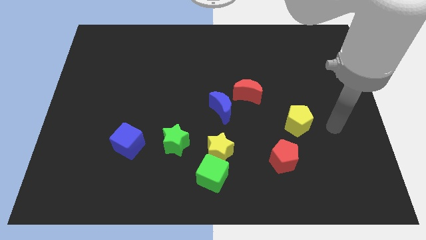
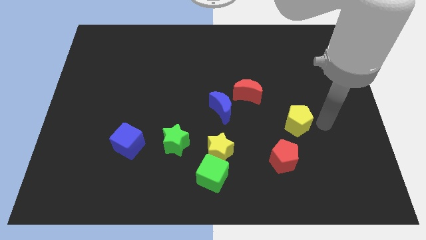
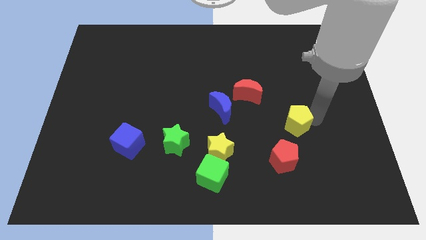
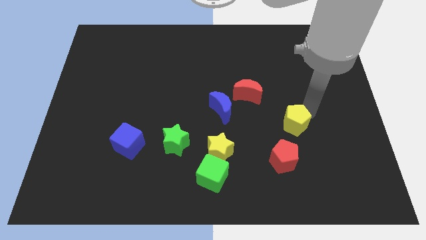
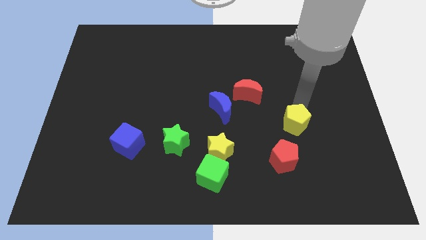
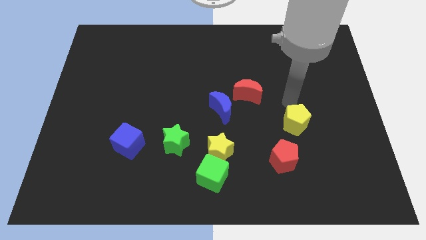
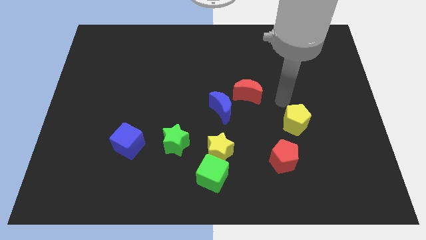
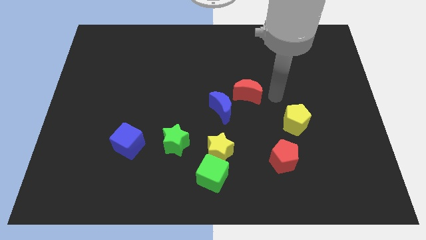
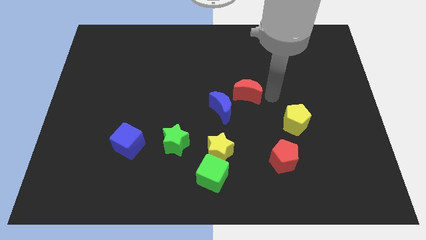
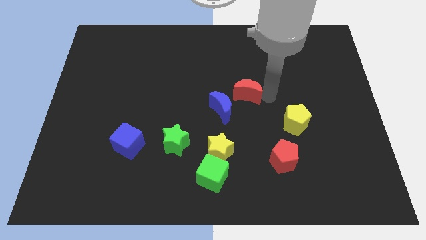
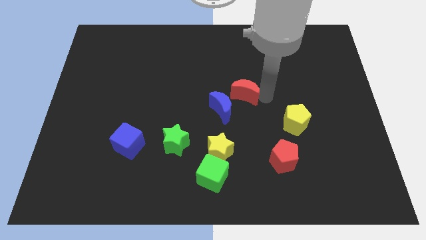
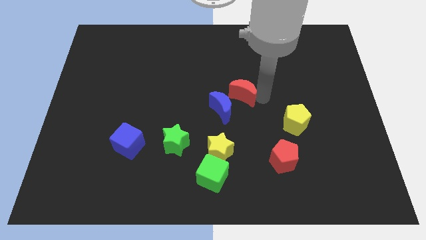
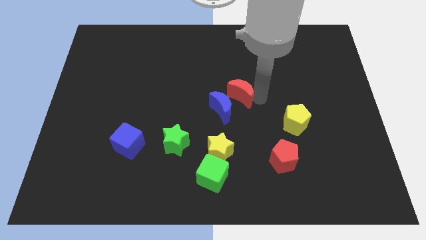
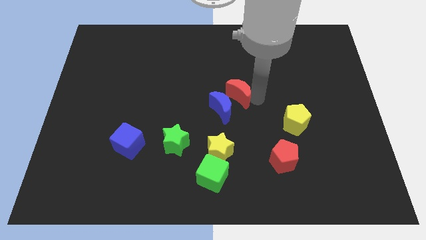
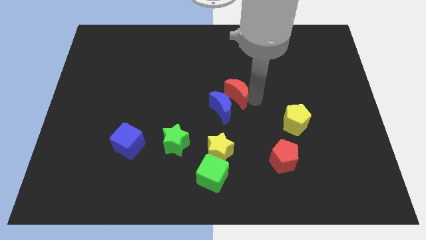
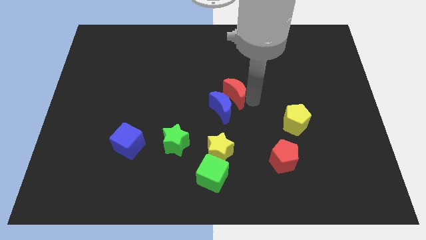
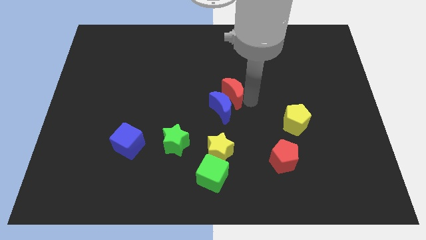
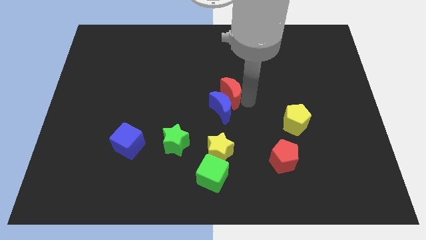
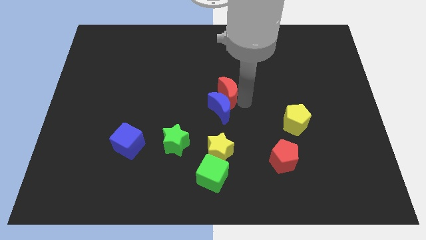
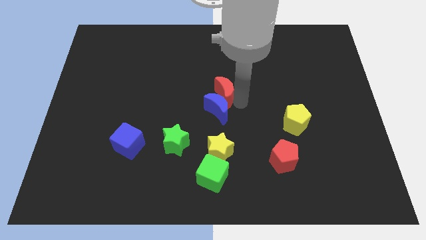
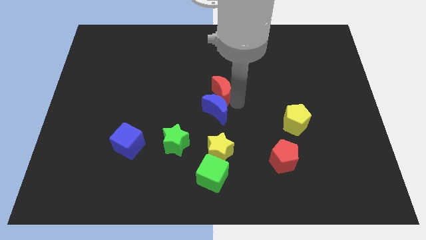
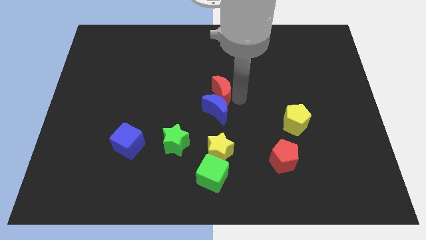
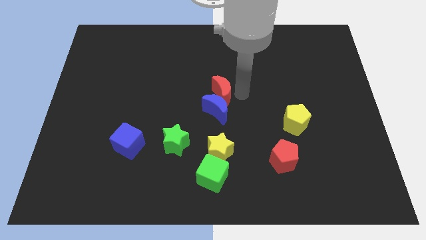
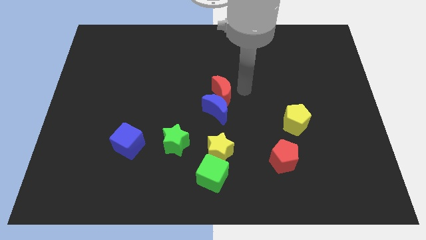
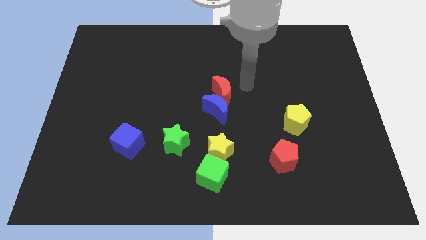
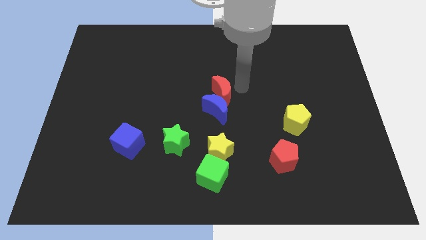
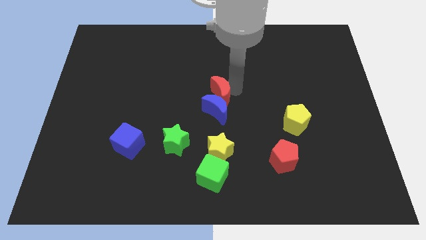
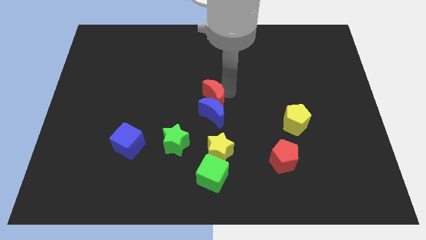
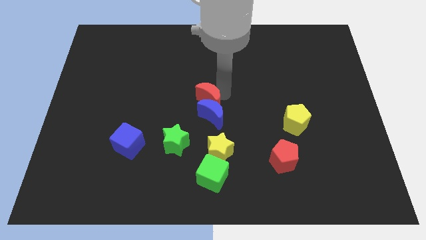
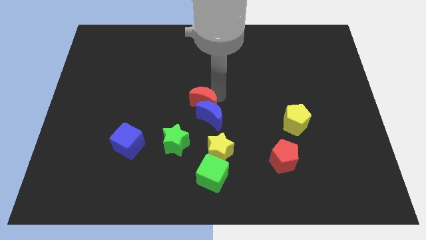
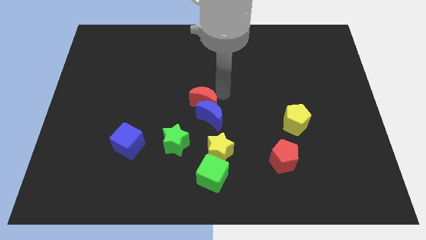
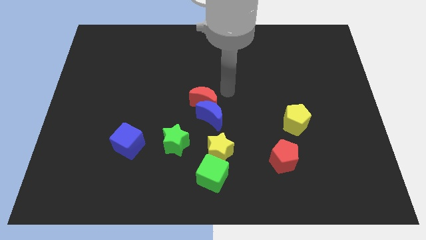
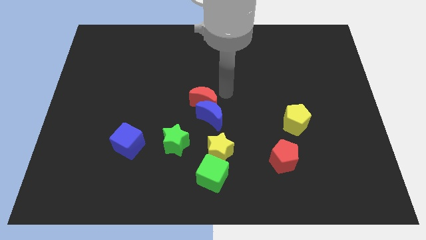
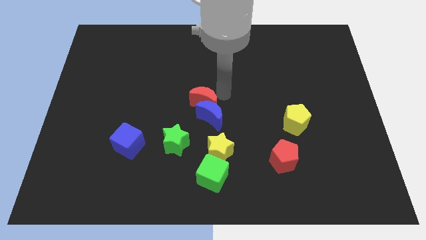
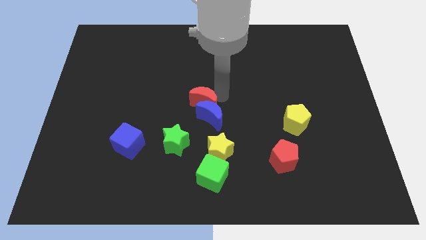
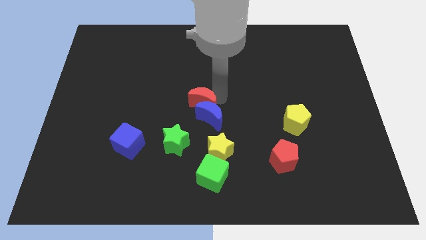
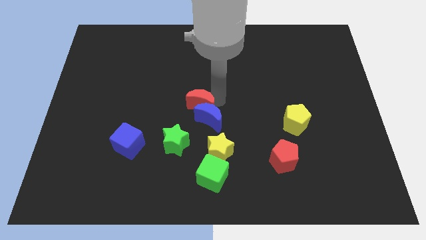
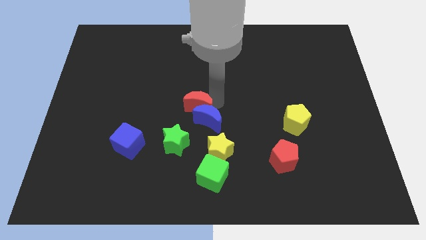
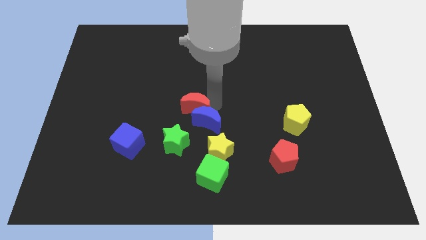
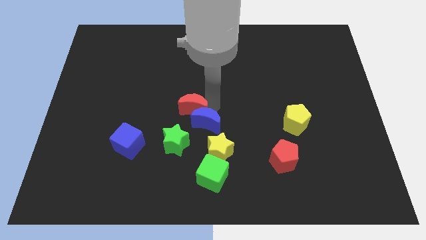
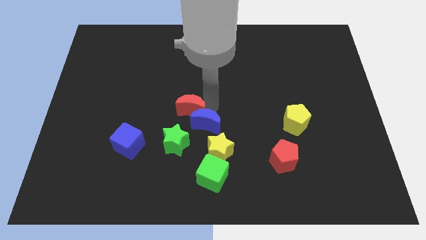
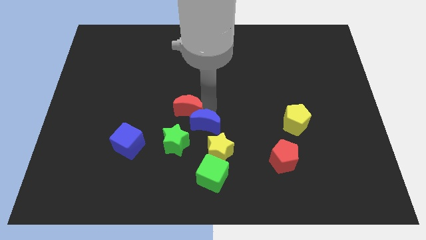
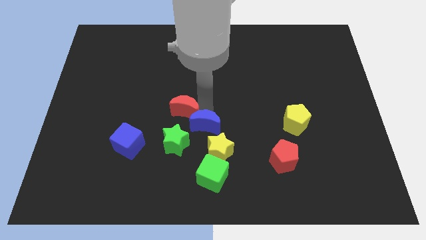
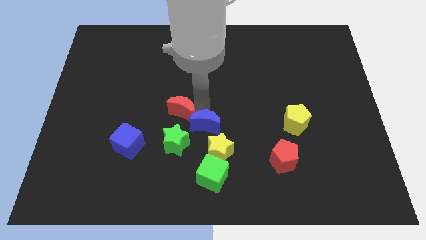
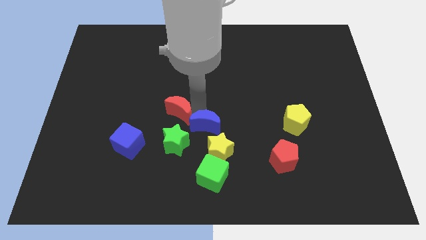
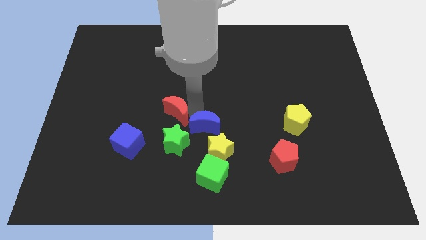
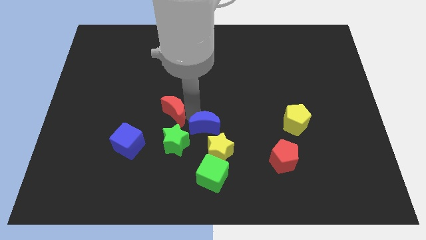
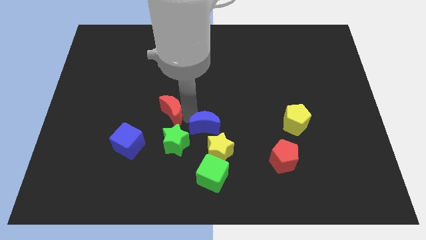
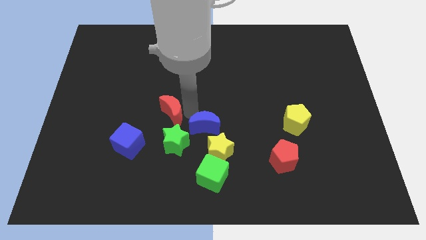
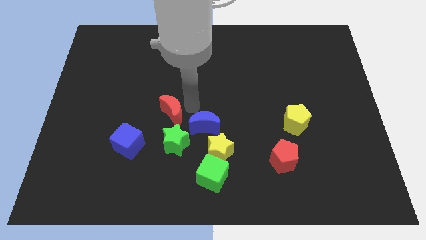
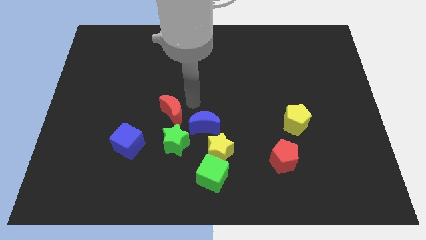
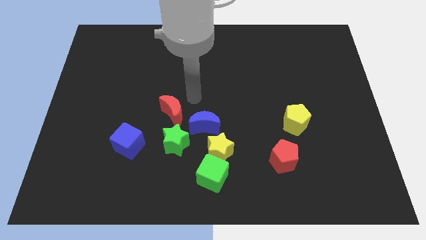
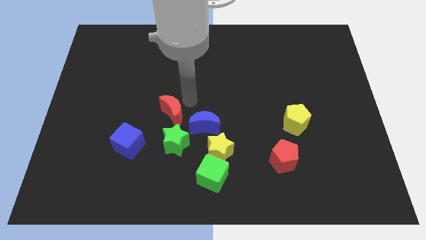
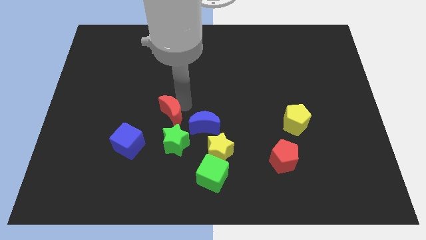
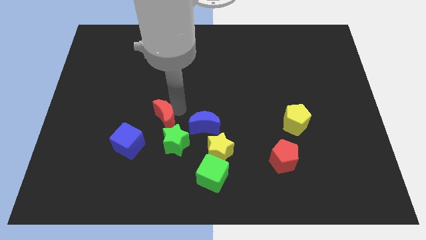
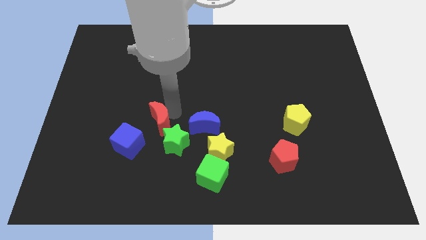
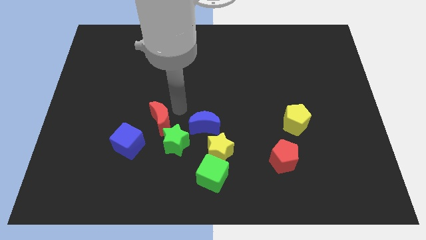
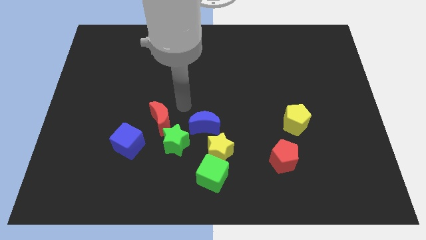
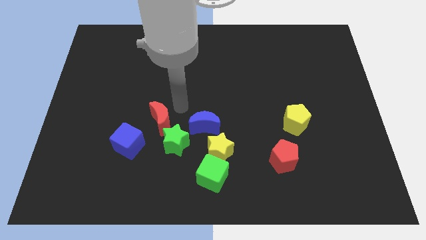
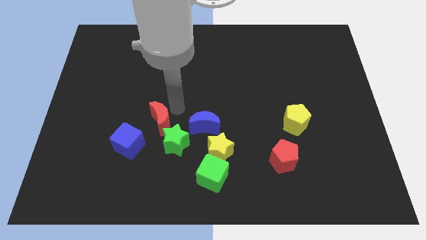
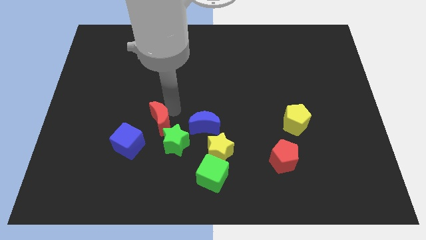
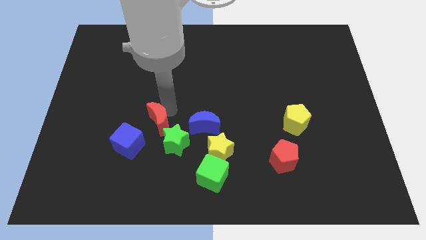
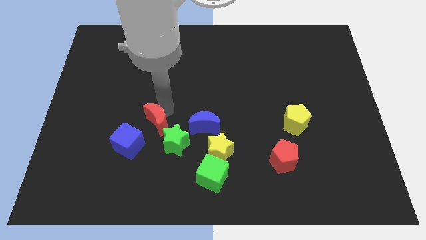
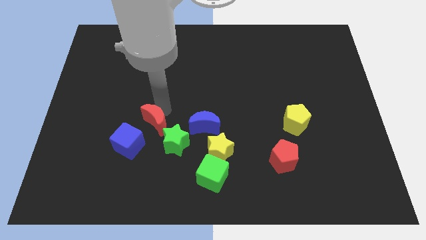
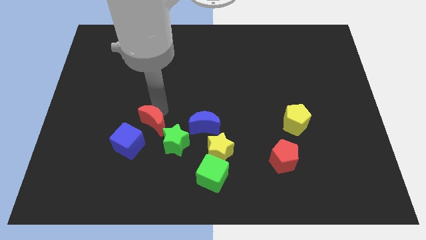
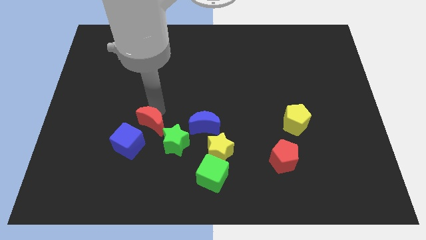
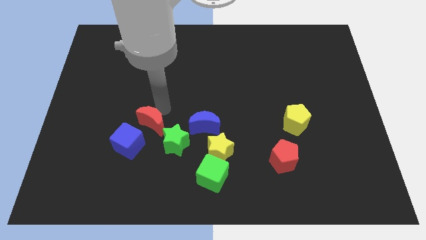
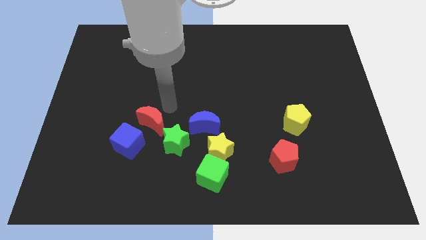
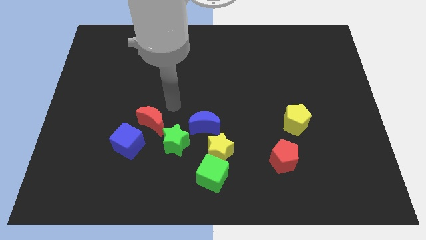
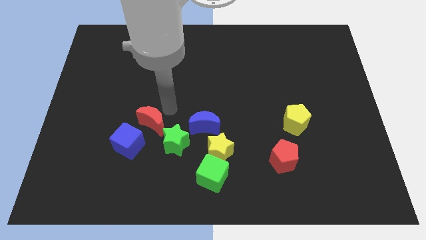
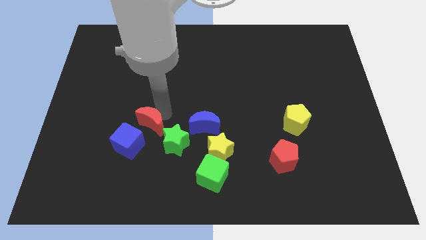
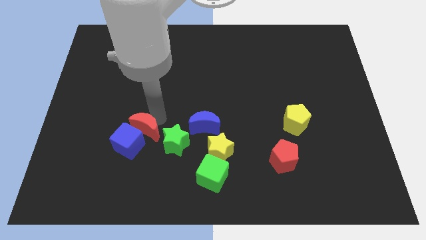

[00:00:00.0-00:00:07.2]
move the red moon next to the blue cube
